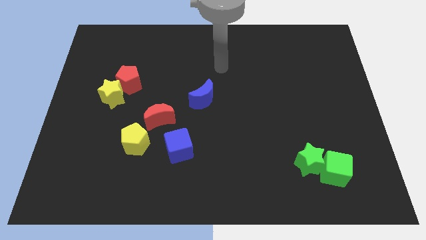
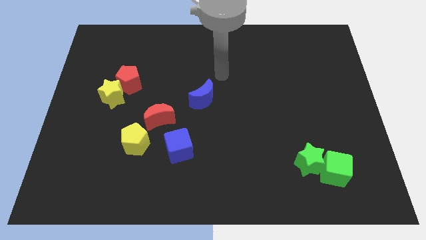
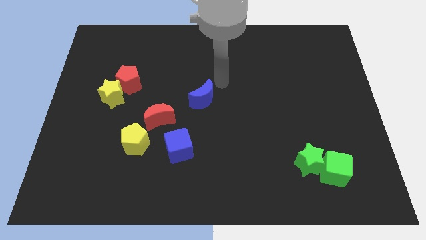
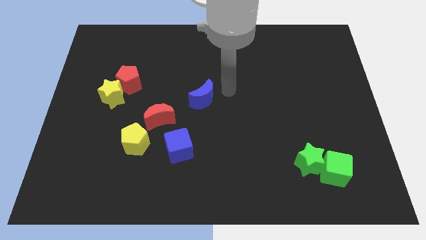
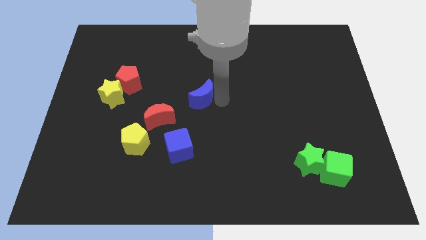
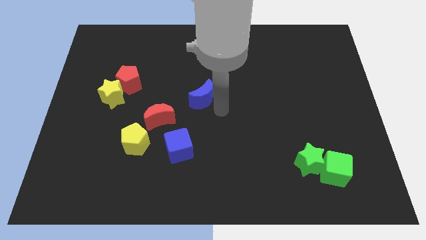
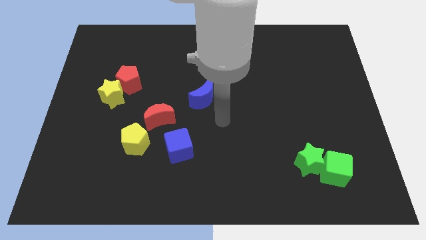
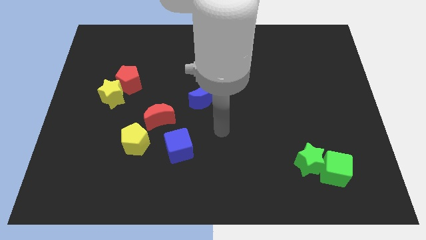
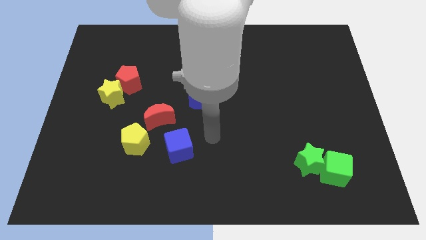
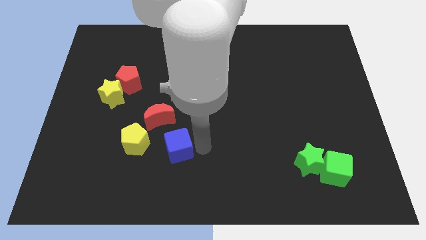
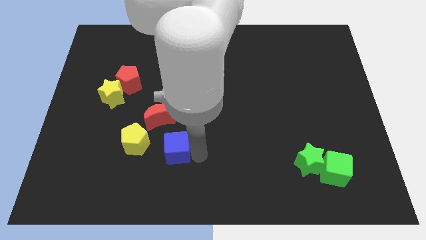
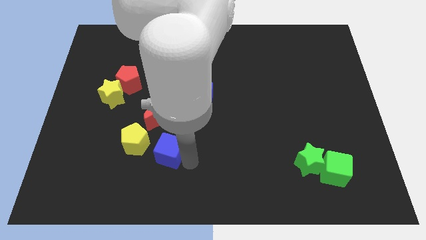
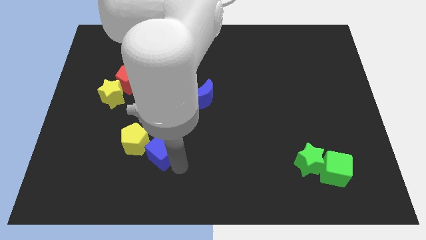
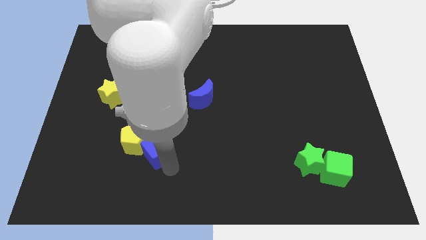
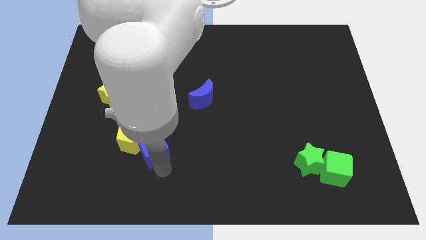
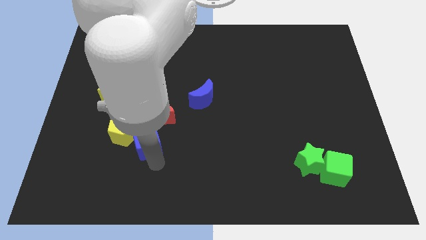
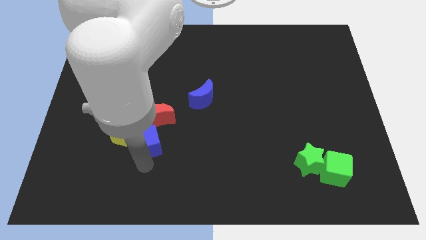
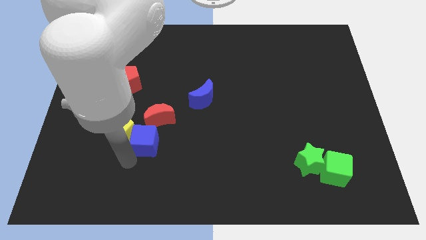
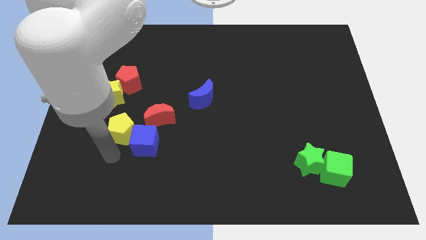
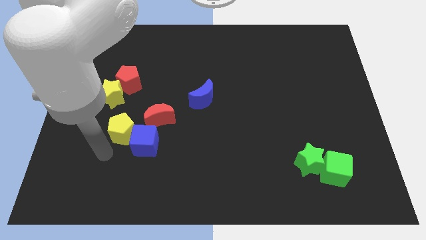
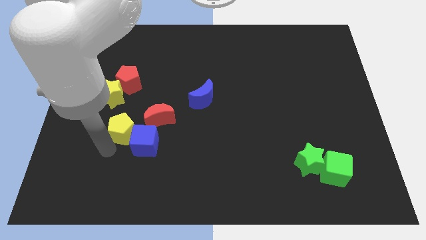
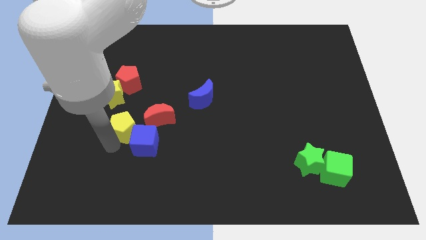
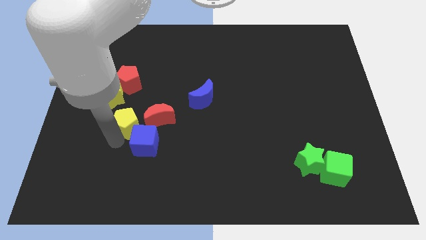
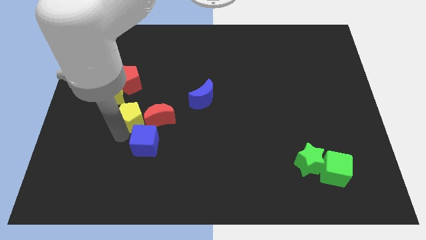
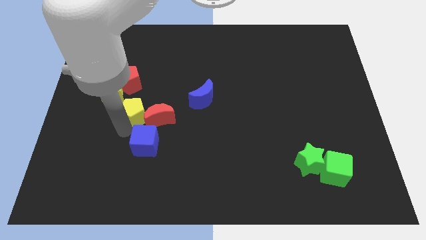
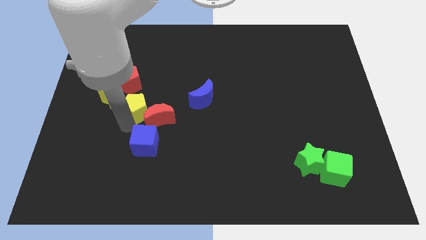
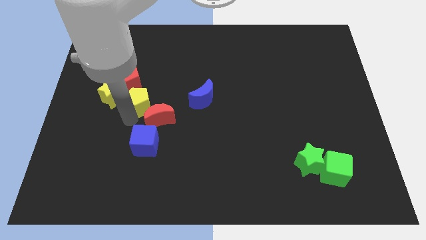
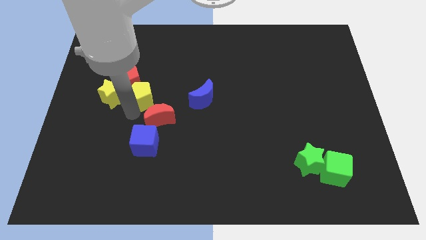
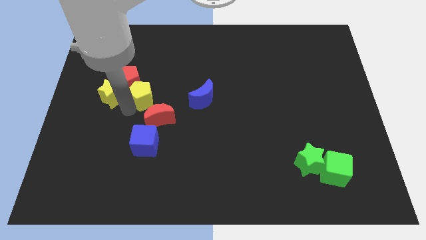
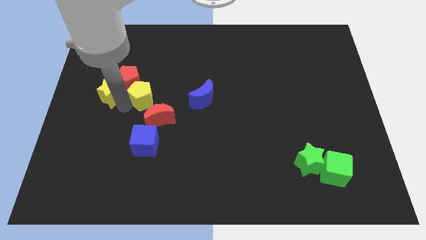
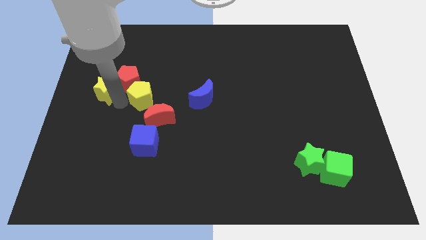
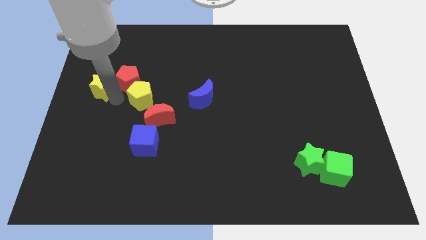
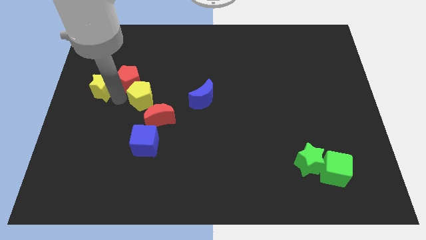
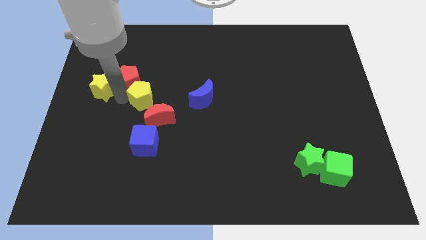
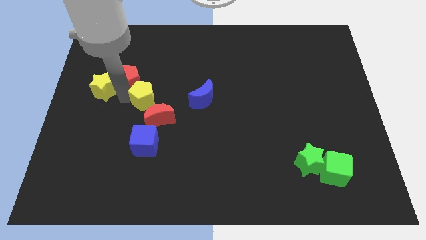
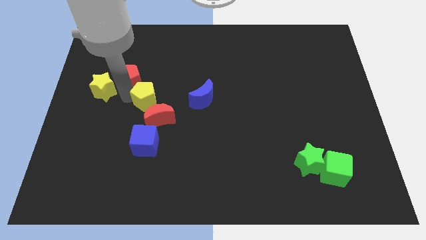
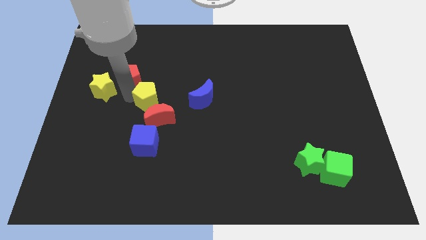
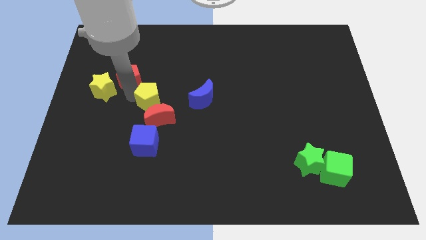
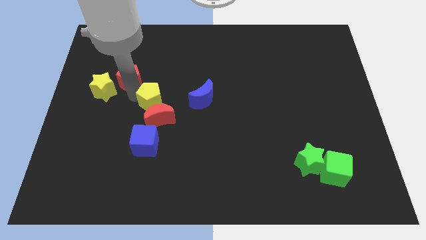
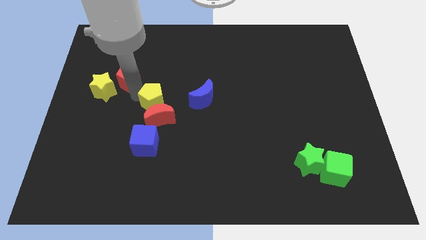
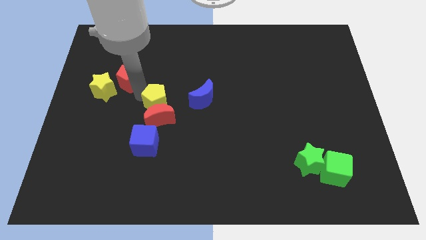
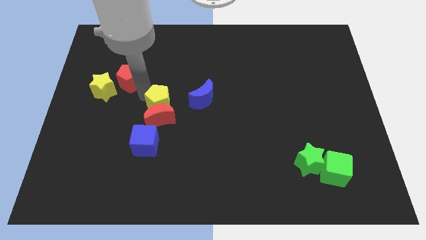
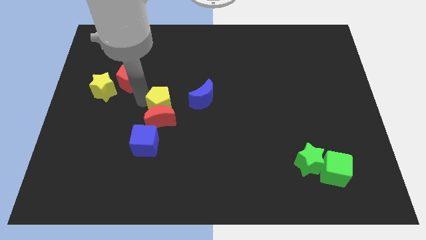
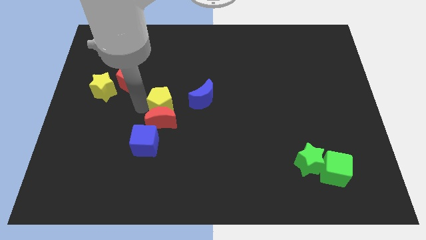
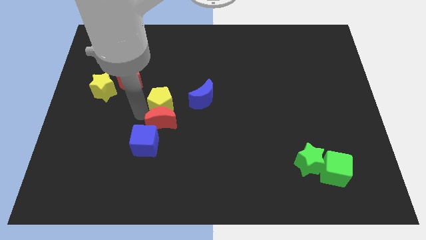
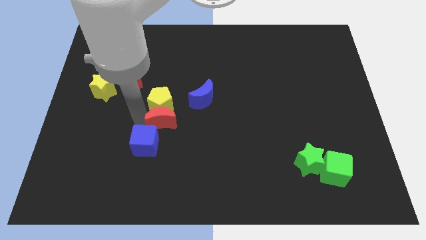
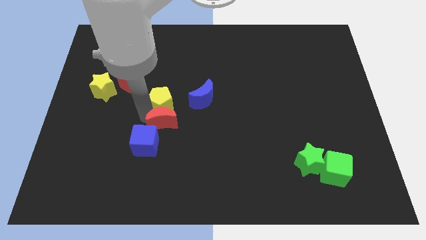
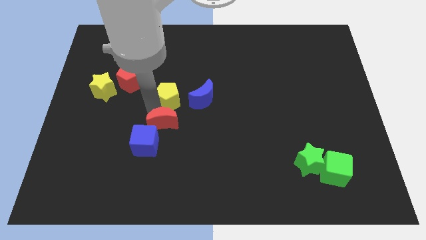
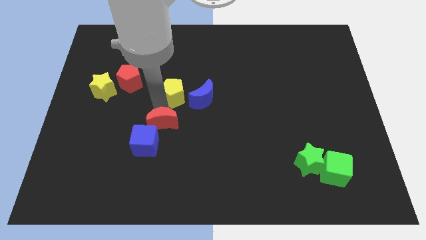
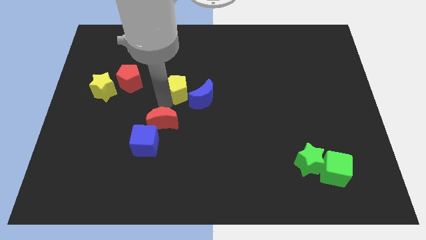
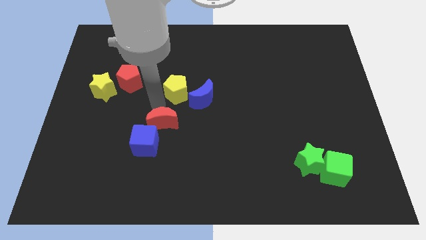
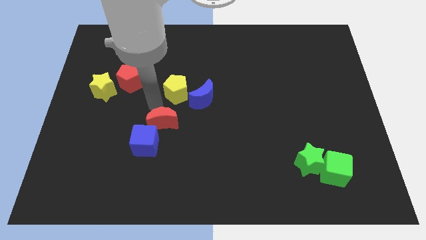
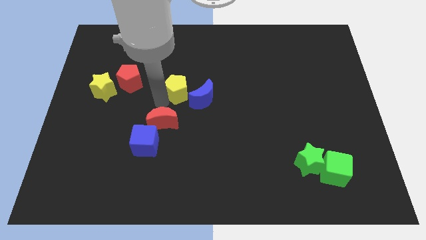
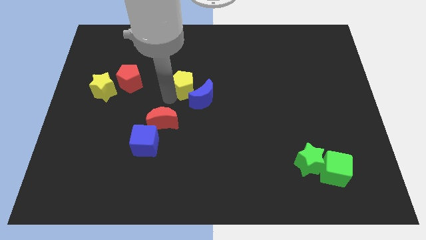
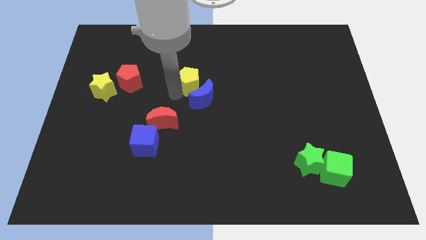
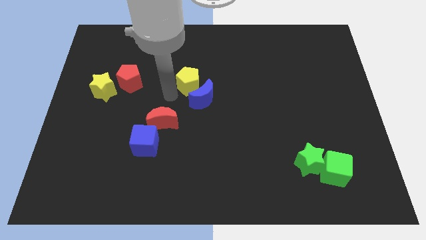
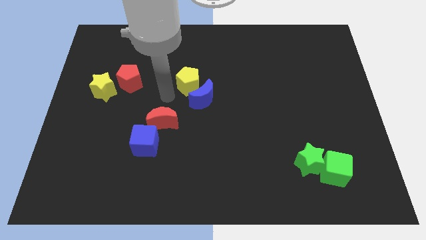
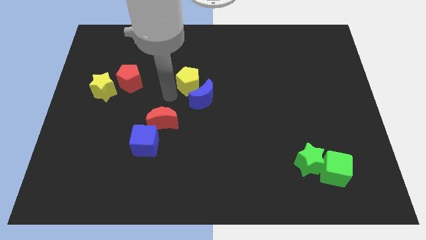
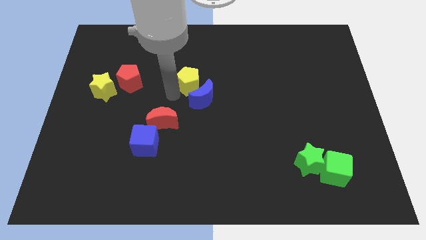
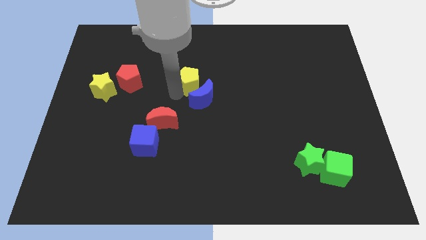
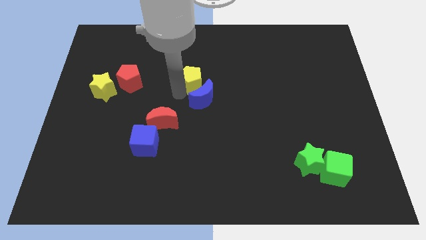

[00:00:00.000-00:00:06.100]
slide the yellow pentagon up and right

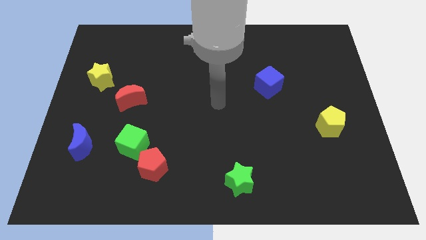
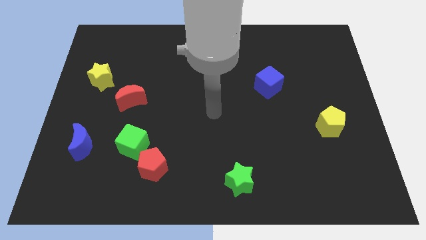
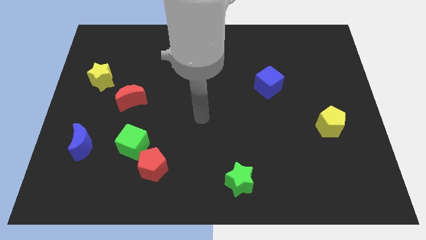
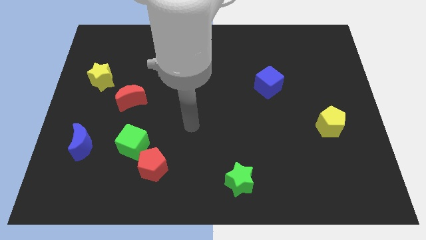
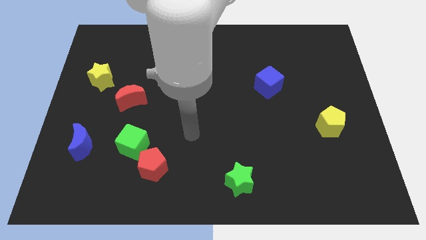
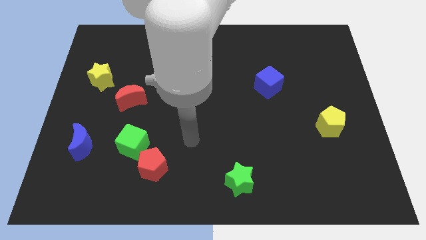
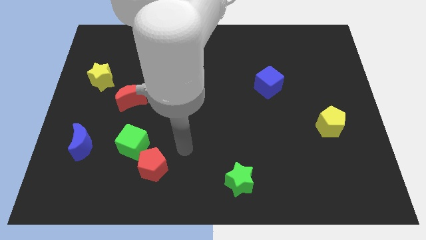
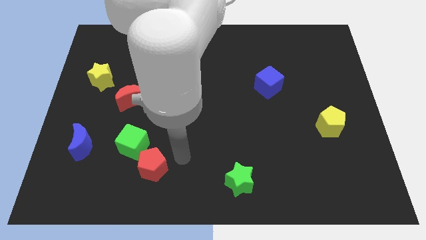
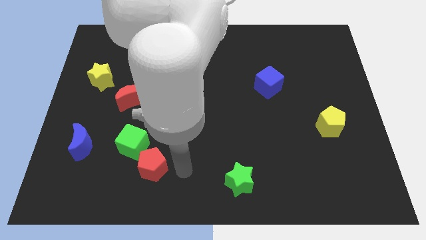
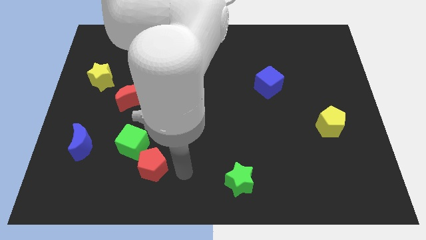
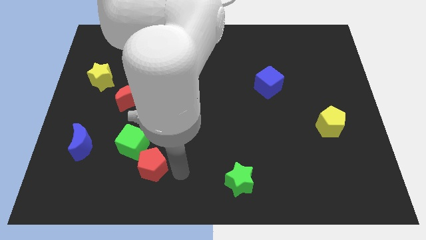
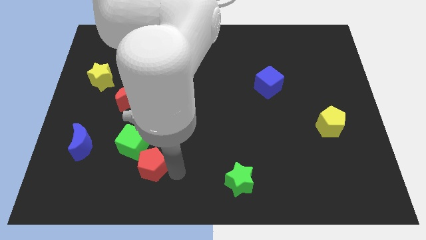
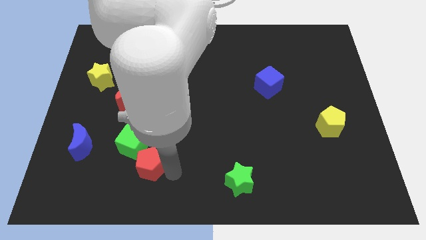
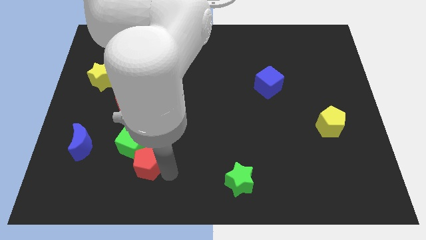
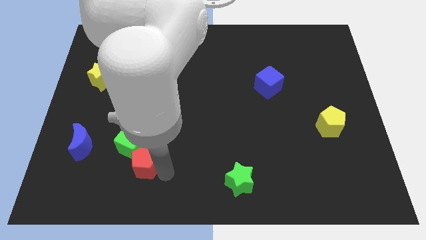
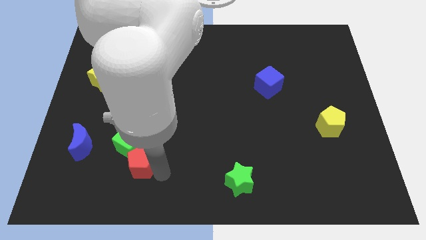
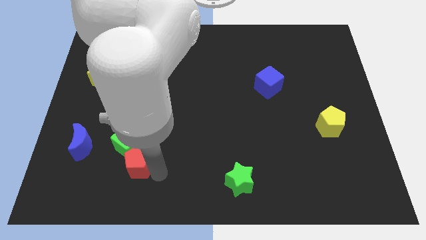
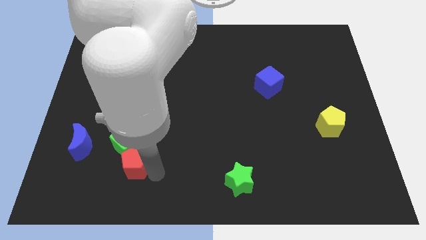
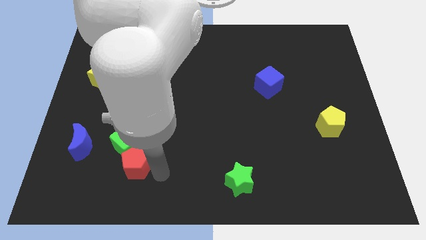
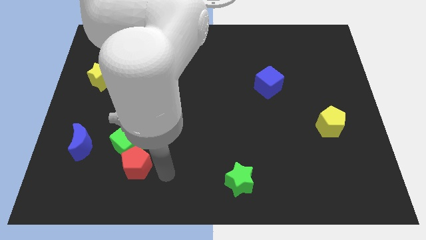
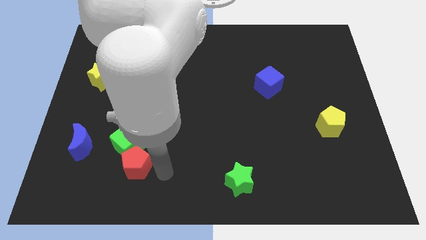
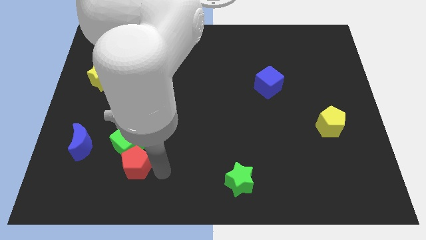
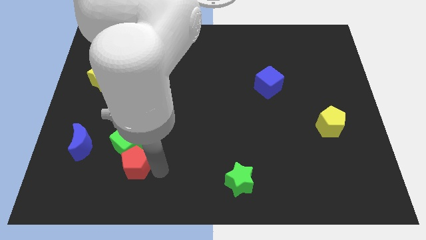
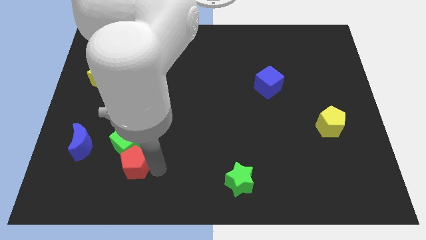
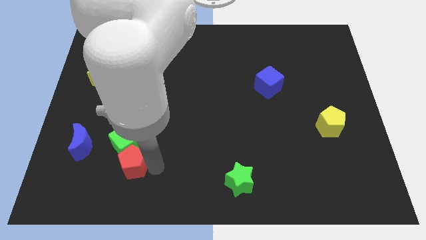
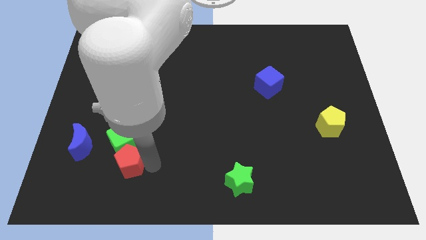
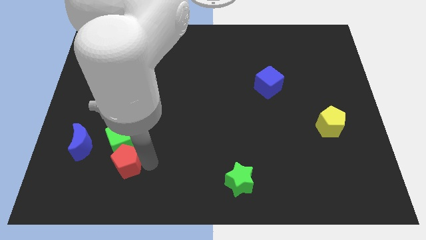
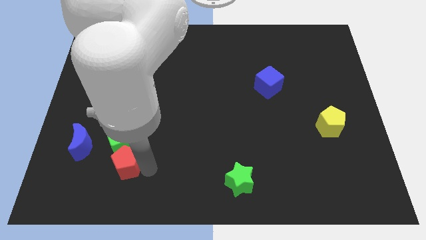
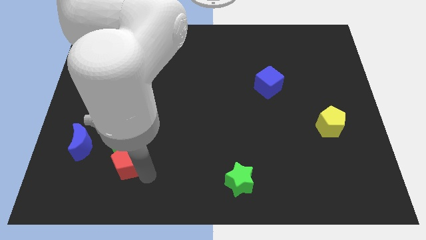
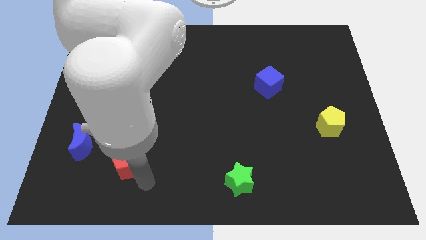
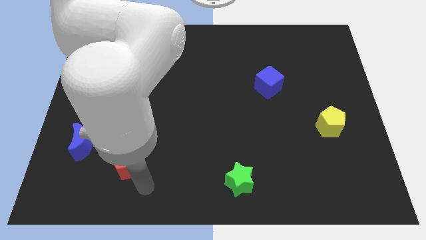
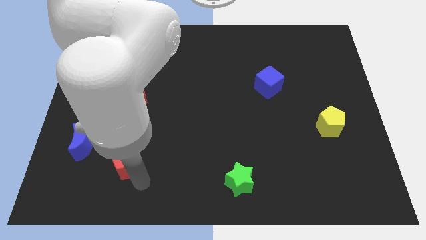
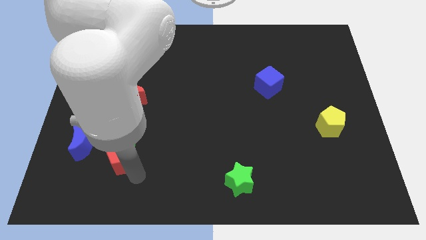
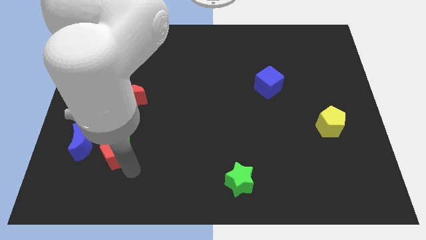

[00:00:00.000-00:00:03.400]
slide the red pentagon somewhat upwards and to the left
